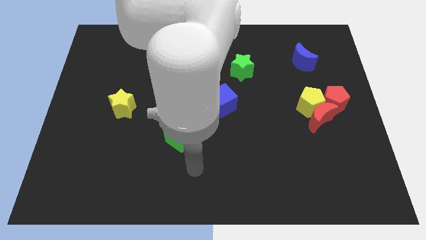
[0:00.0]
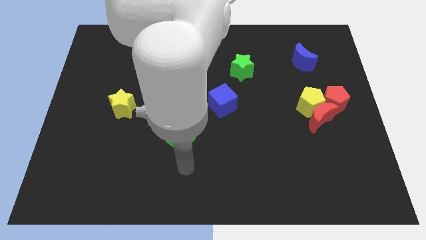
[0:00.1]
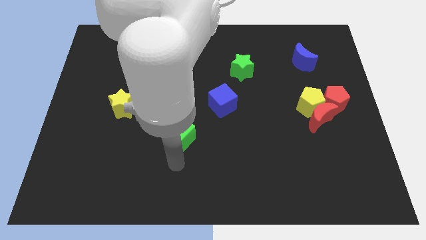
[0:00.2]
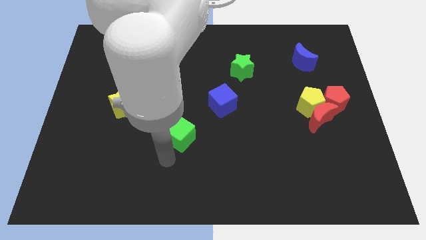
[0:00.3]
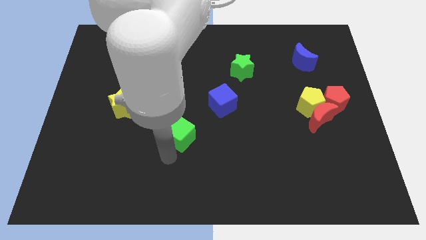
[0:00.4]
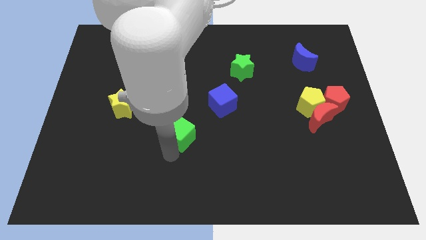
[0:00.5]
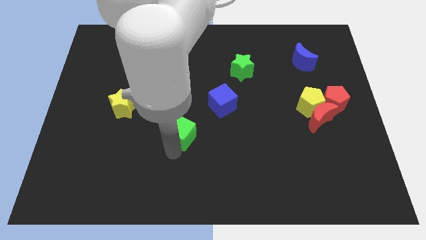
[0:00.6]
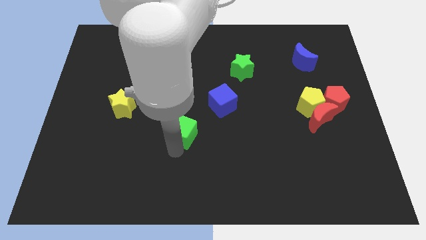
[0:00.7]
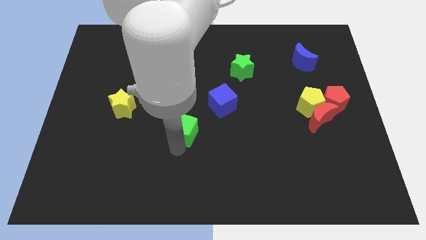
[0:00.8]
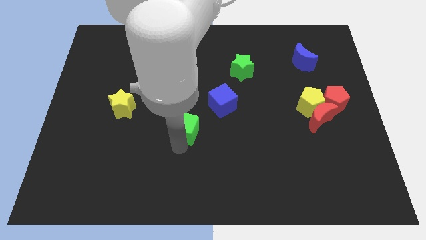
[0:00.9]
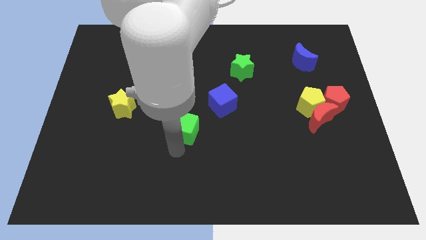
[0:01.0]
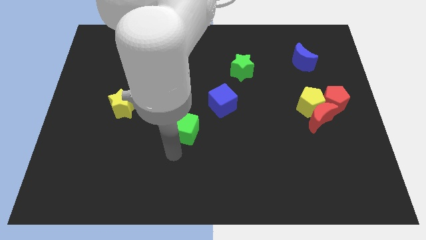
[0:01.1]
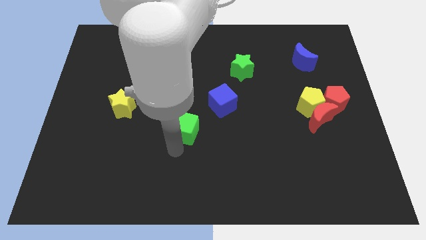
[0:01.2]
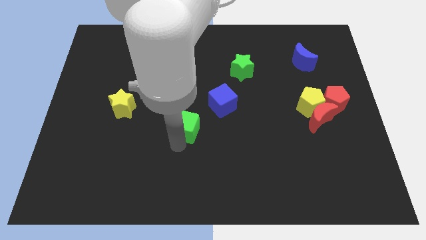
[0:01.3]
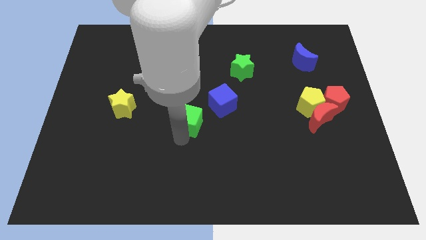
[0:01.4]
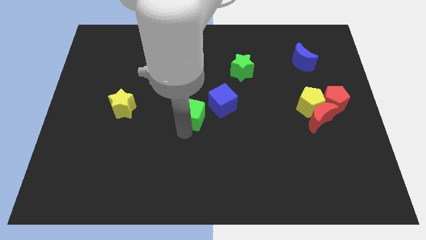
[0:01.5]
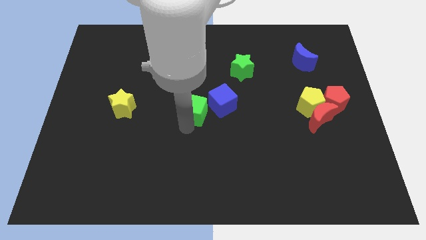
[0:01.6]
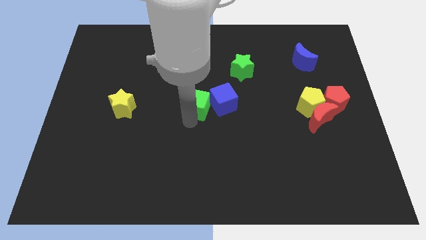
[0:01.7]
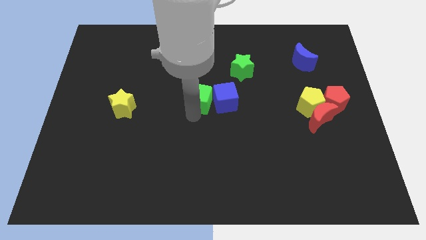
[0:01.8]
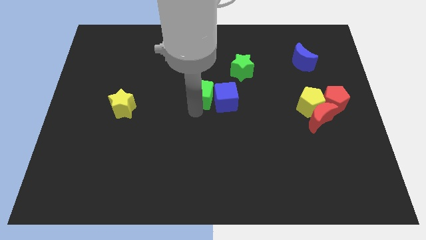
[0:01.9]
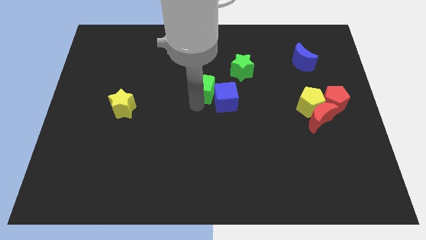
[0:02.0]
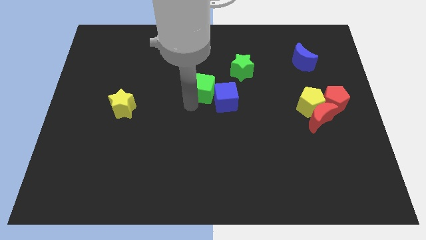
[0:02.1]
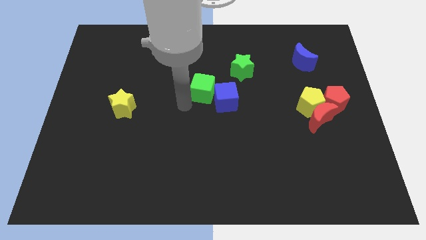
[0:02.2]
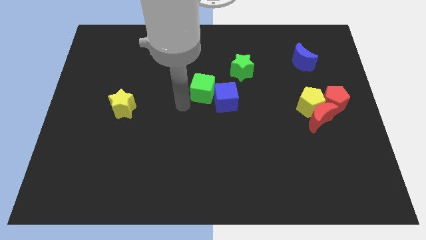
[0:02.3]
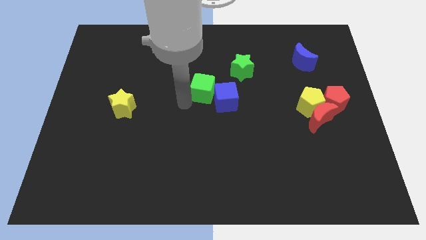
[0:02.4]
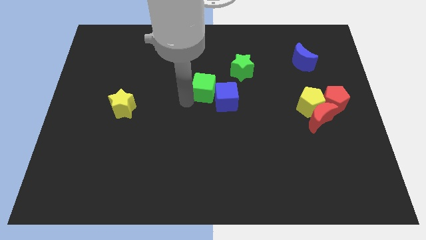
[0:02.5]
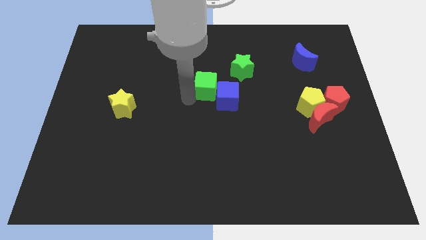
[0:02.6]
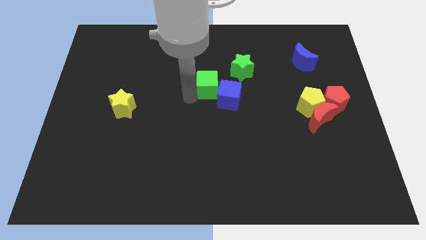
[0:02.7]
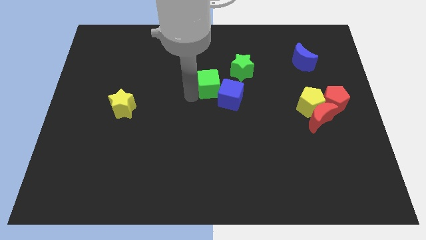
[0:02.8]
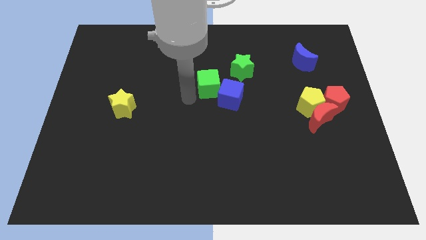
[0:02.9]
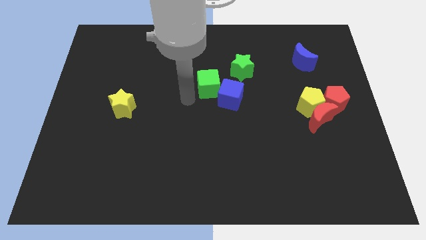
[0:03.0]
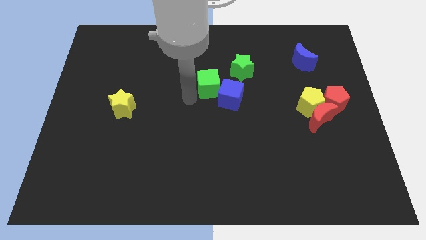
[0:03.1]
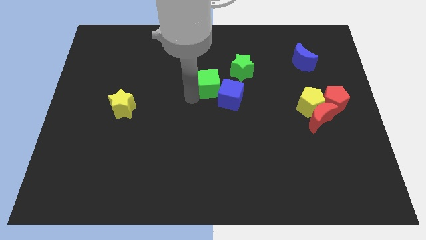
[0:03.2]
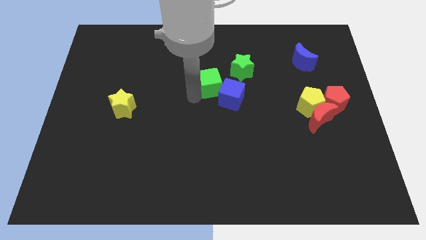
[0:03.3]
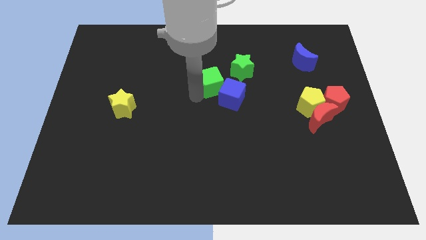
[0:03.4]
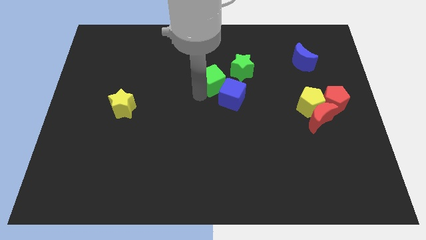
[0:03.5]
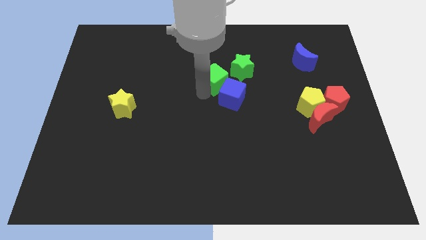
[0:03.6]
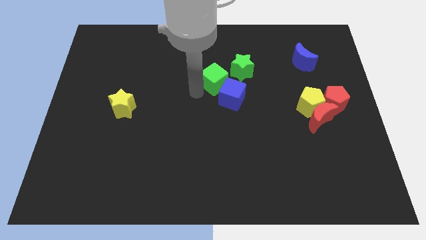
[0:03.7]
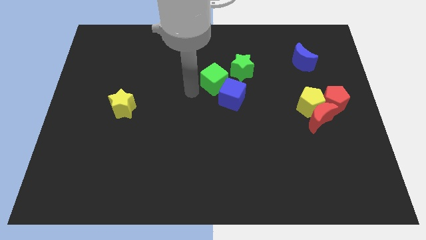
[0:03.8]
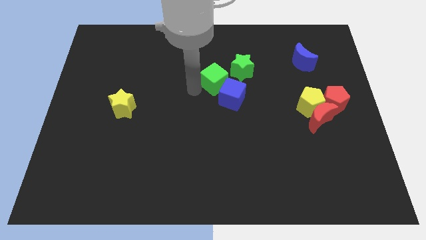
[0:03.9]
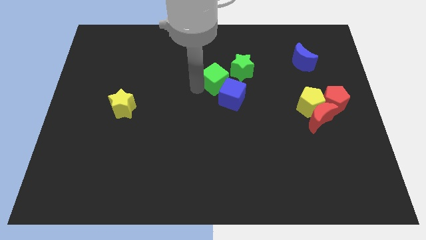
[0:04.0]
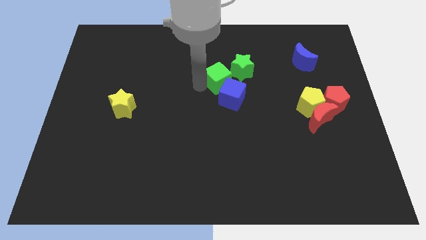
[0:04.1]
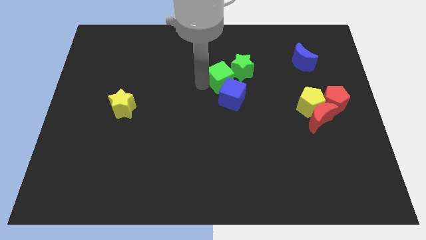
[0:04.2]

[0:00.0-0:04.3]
slide the green cube close to the green star

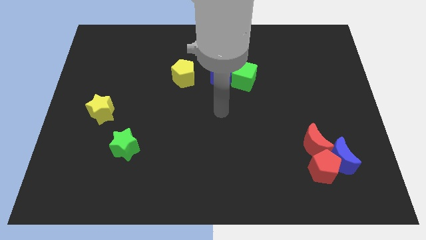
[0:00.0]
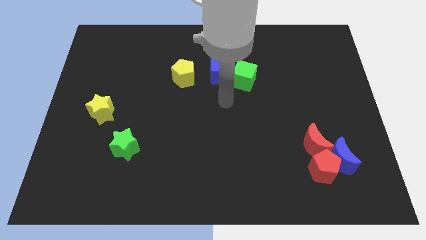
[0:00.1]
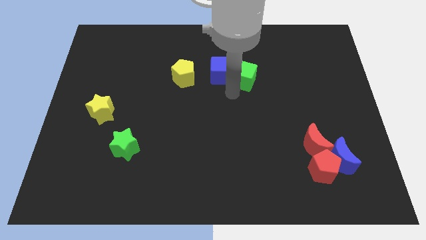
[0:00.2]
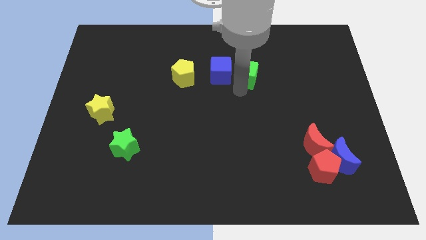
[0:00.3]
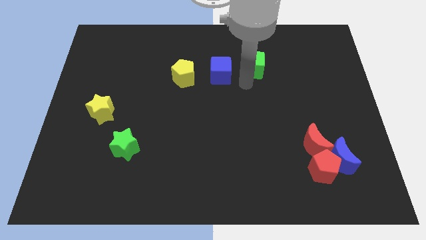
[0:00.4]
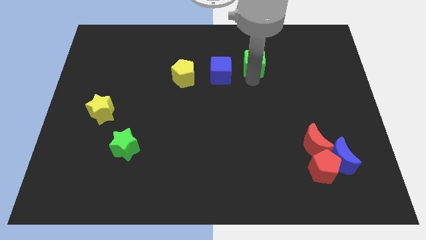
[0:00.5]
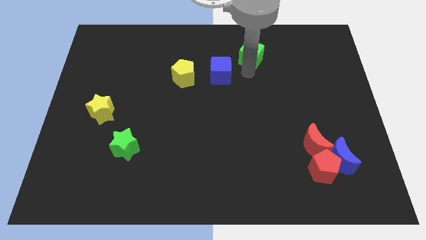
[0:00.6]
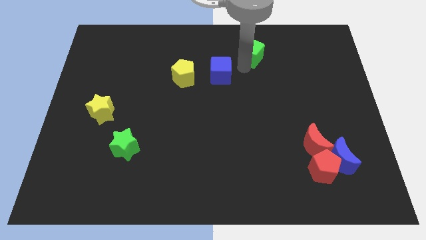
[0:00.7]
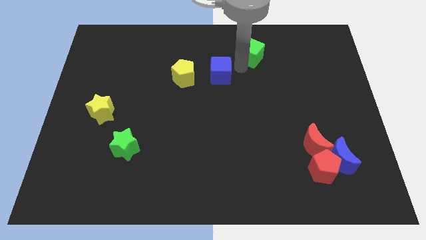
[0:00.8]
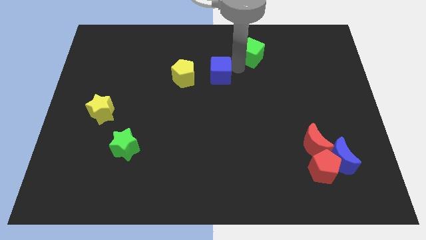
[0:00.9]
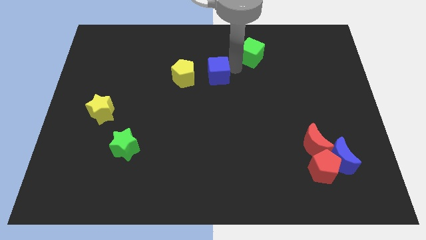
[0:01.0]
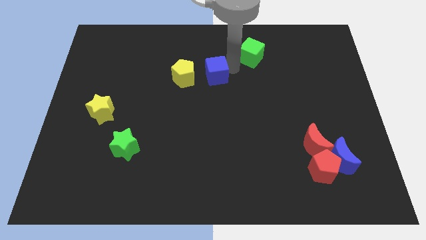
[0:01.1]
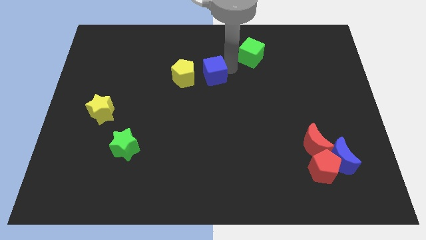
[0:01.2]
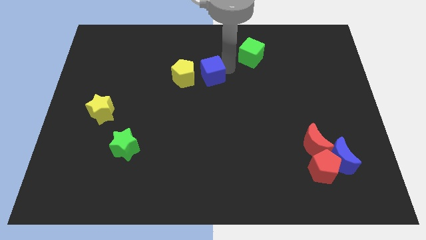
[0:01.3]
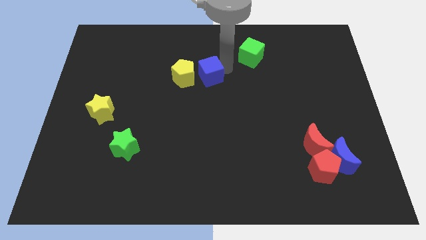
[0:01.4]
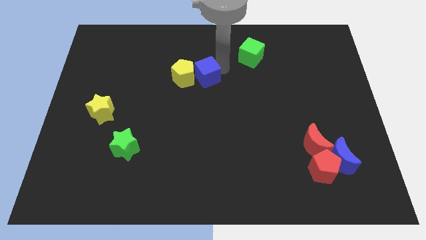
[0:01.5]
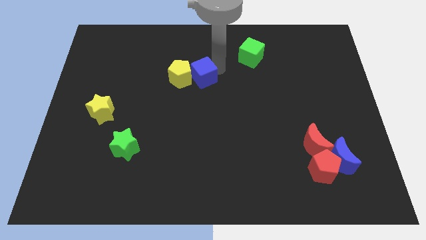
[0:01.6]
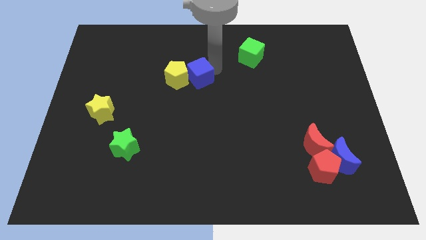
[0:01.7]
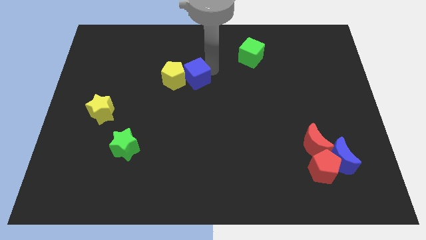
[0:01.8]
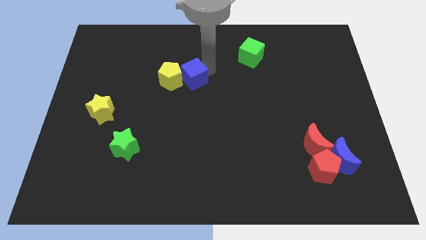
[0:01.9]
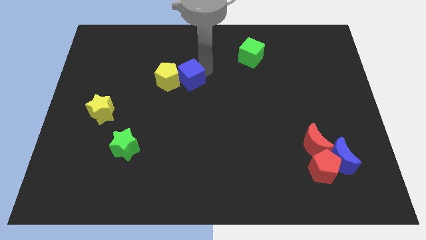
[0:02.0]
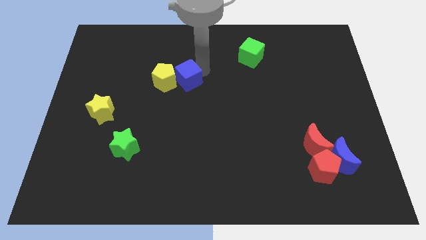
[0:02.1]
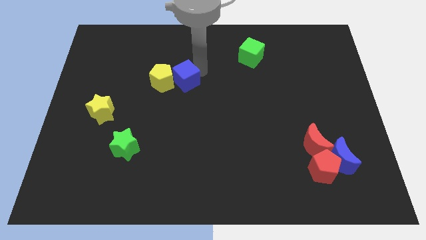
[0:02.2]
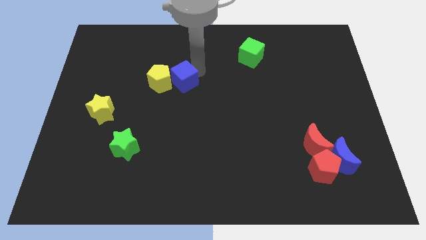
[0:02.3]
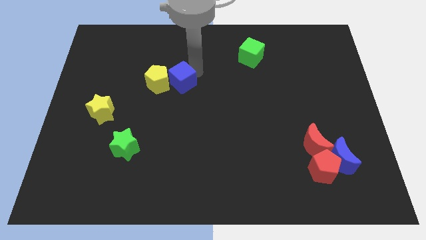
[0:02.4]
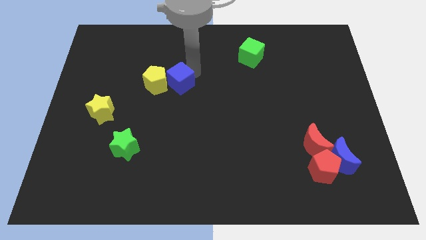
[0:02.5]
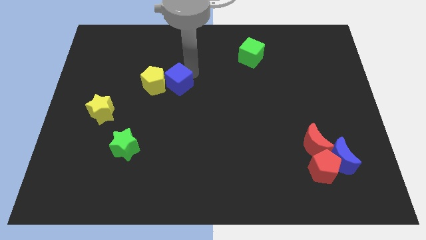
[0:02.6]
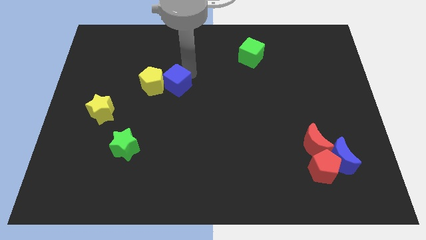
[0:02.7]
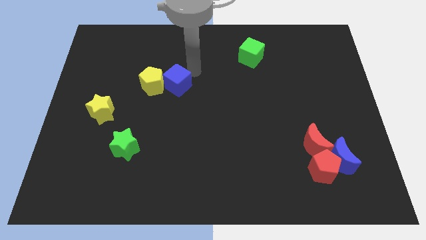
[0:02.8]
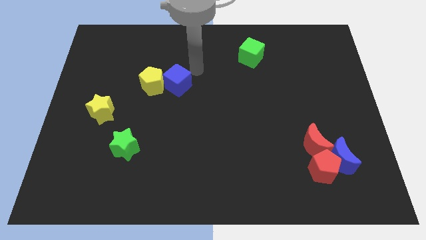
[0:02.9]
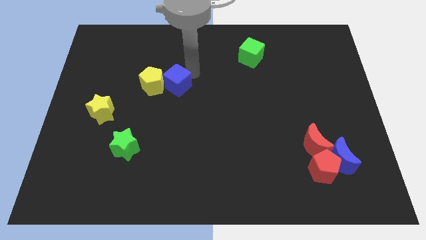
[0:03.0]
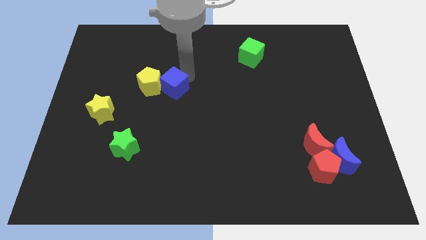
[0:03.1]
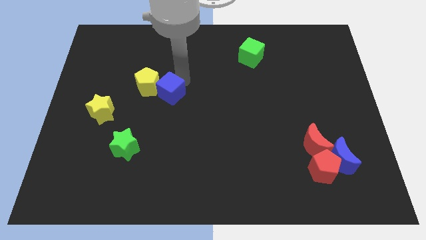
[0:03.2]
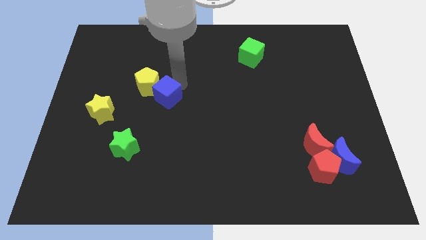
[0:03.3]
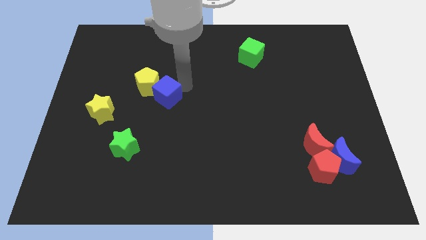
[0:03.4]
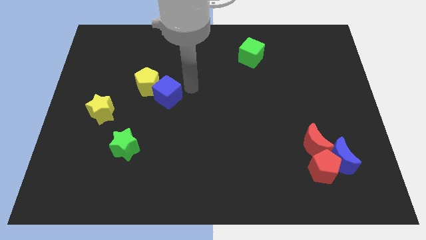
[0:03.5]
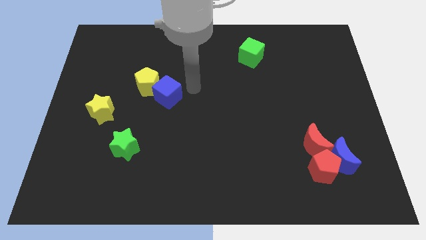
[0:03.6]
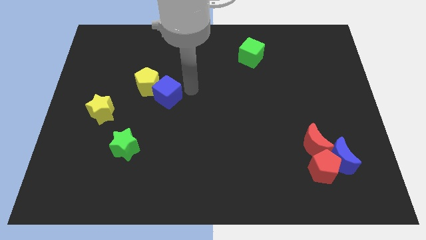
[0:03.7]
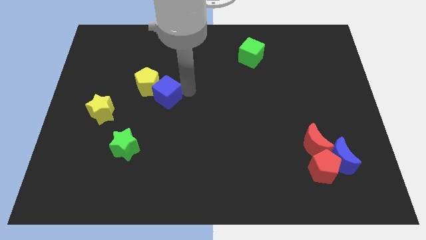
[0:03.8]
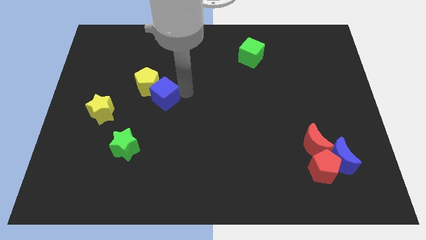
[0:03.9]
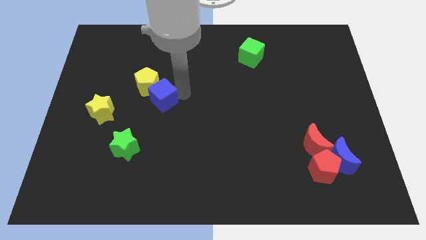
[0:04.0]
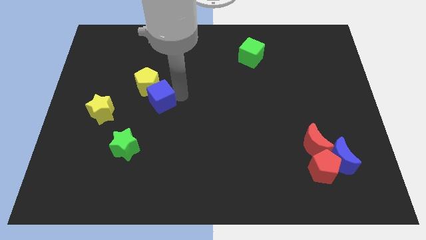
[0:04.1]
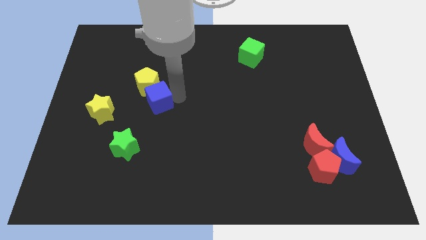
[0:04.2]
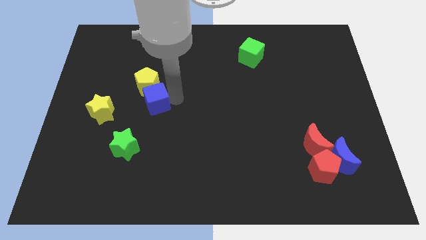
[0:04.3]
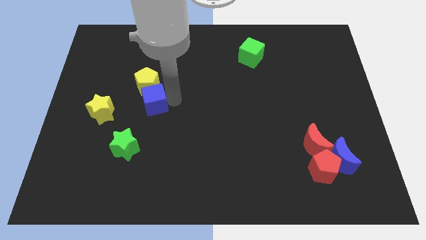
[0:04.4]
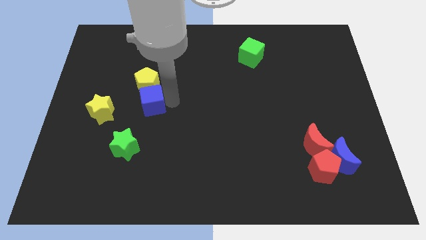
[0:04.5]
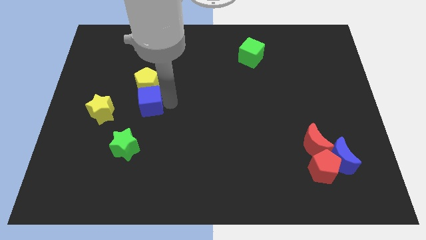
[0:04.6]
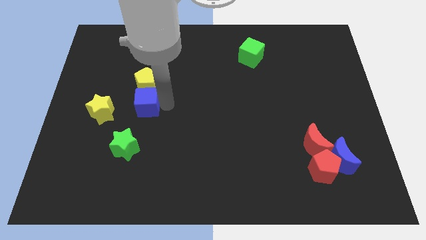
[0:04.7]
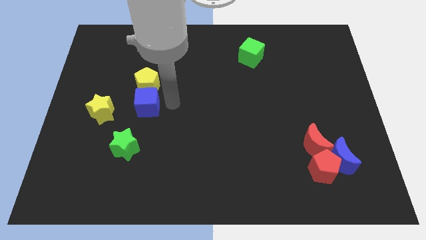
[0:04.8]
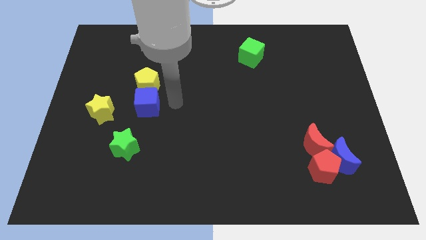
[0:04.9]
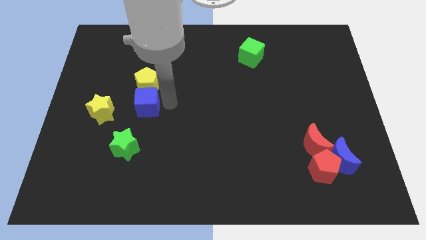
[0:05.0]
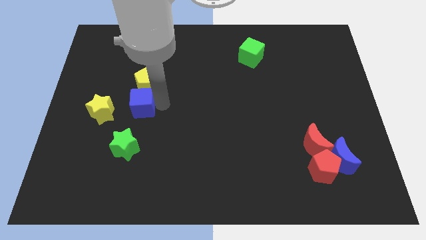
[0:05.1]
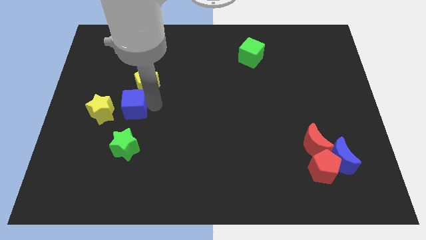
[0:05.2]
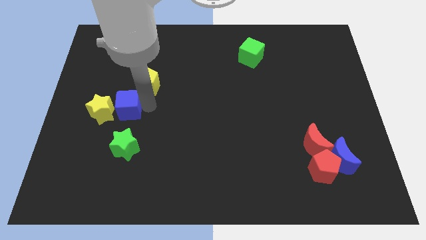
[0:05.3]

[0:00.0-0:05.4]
move the blue cube towards the yellow star
